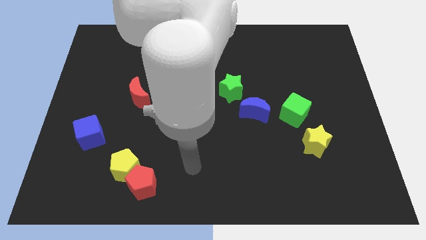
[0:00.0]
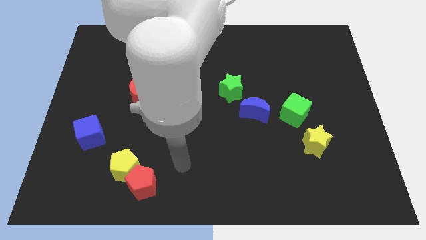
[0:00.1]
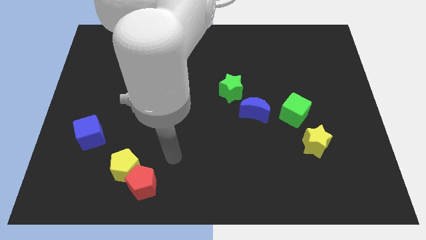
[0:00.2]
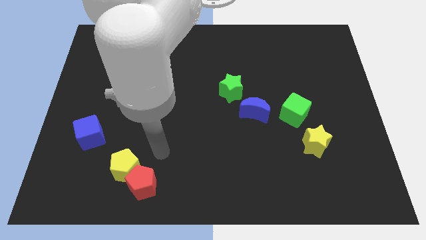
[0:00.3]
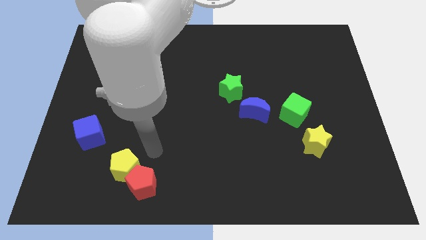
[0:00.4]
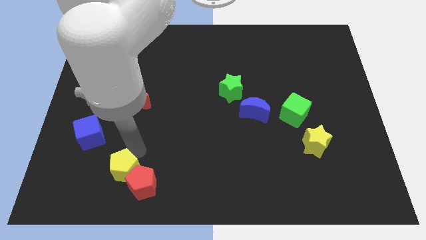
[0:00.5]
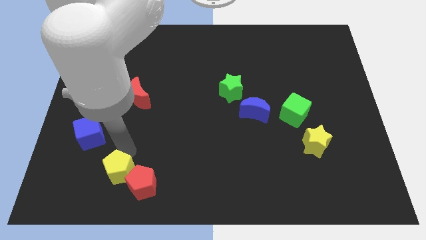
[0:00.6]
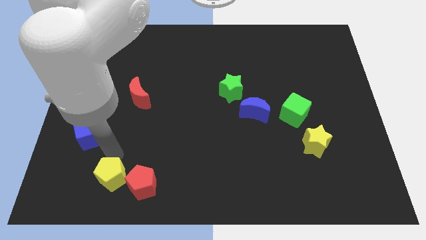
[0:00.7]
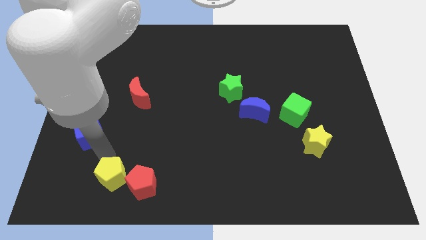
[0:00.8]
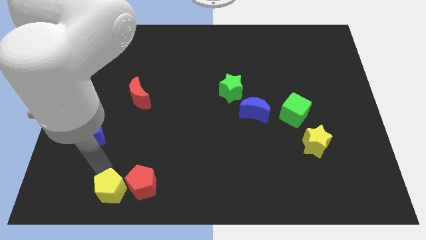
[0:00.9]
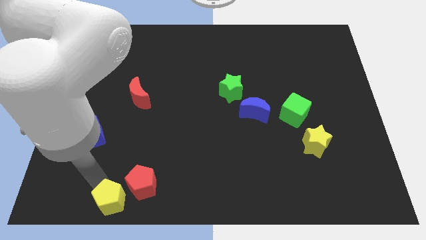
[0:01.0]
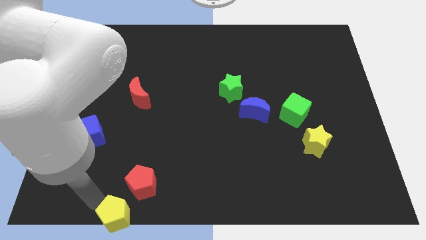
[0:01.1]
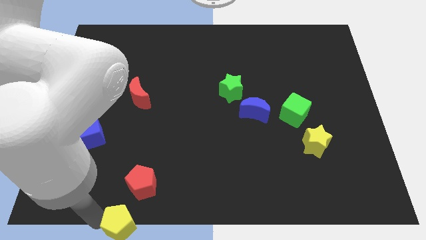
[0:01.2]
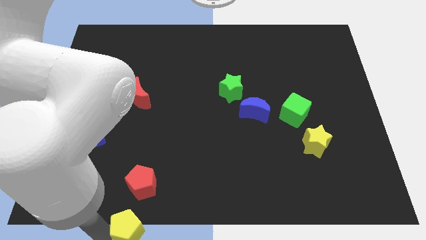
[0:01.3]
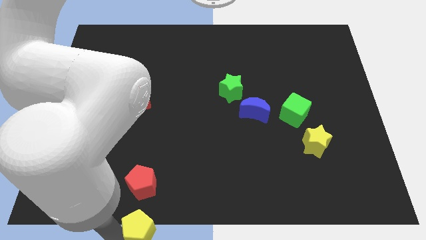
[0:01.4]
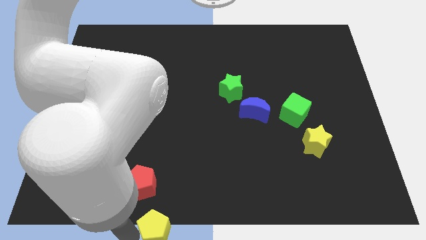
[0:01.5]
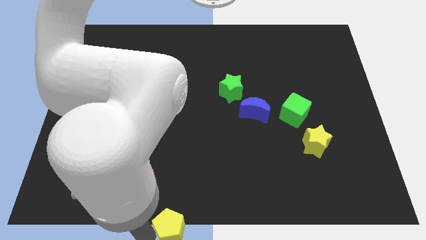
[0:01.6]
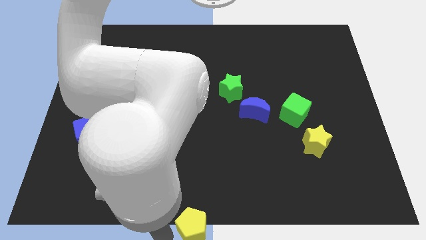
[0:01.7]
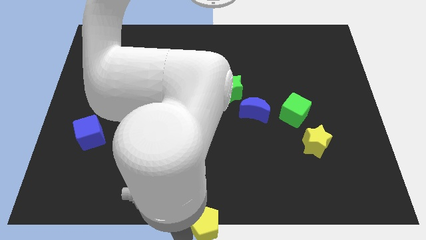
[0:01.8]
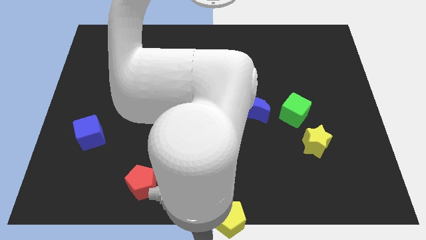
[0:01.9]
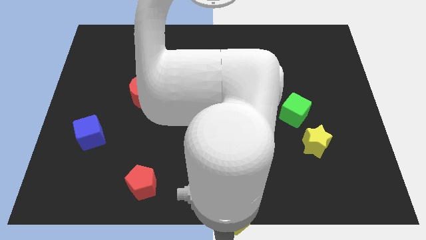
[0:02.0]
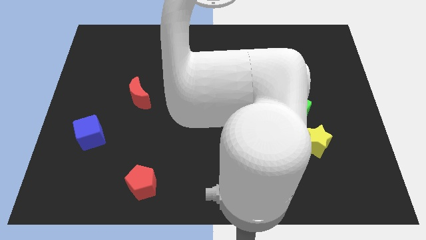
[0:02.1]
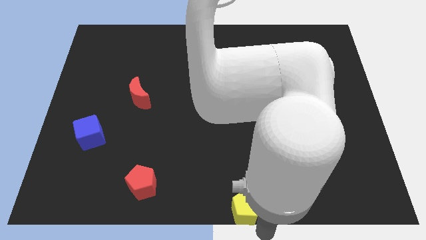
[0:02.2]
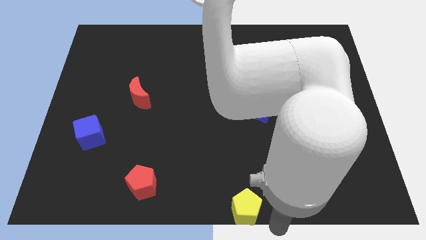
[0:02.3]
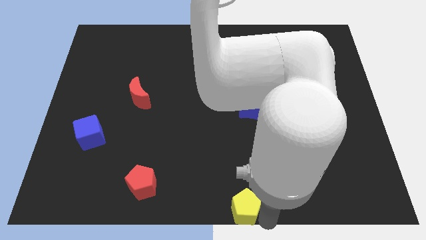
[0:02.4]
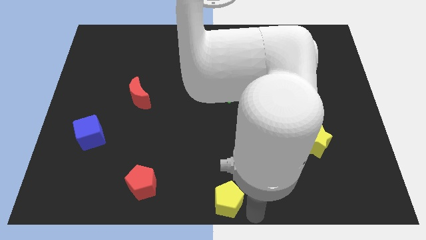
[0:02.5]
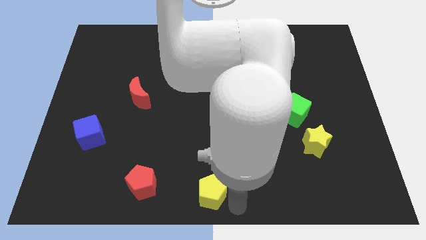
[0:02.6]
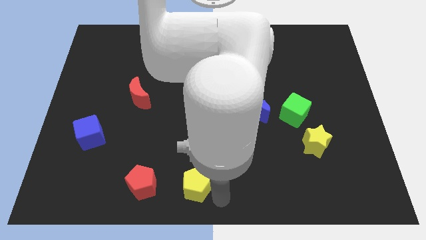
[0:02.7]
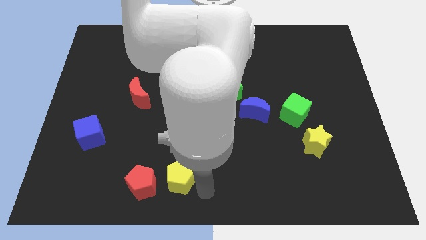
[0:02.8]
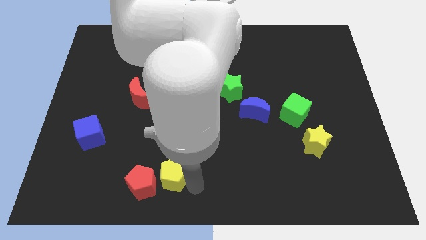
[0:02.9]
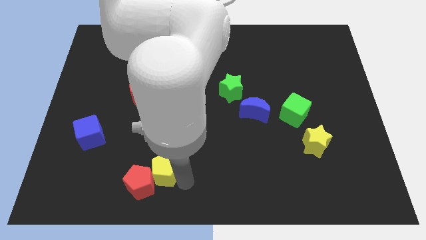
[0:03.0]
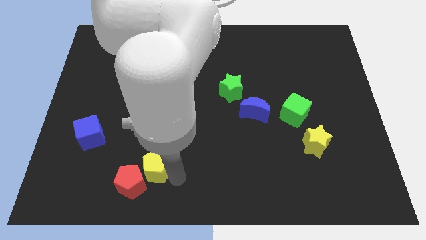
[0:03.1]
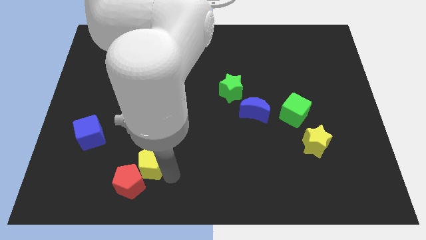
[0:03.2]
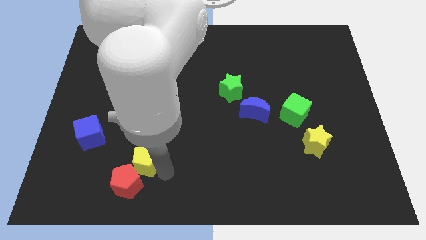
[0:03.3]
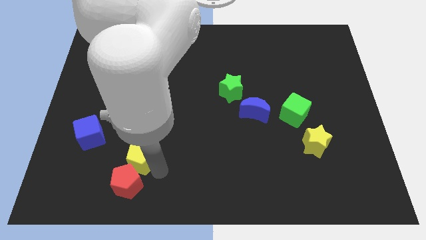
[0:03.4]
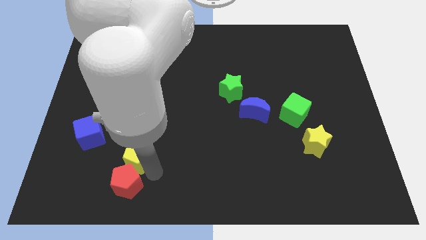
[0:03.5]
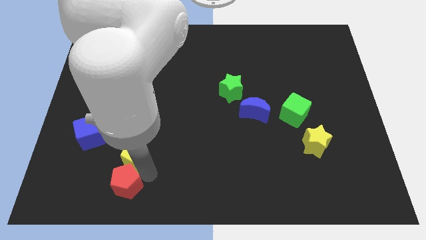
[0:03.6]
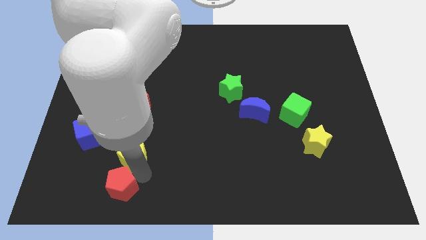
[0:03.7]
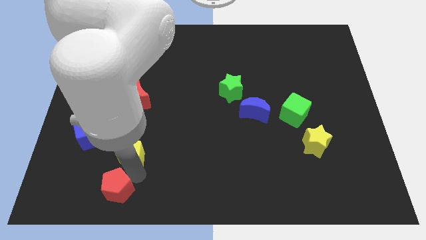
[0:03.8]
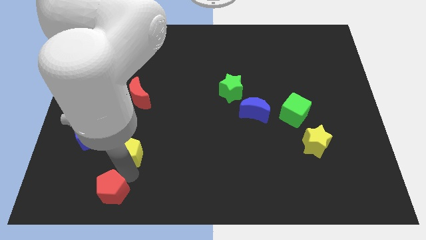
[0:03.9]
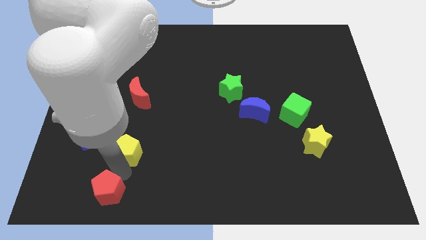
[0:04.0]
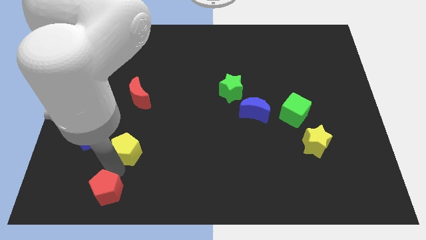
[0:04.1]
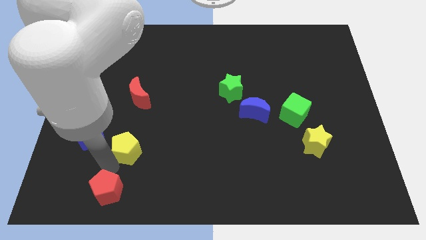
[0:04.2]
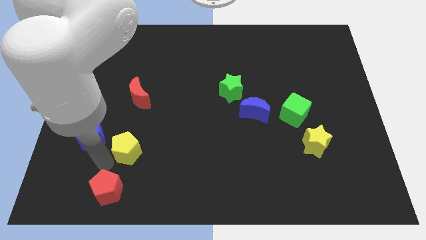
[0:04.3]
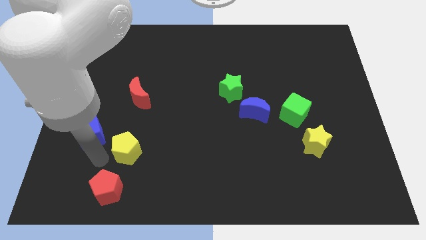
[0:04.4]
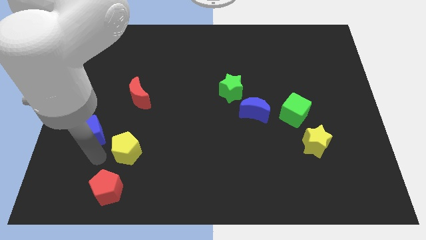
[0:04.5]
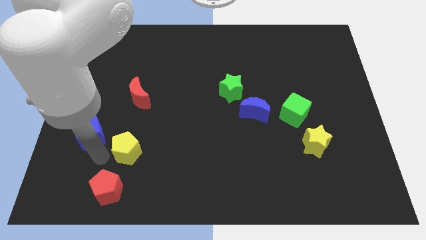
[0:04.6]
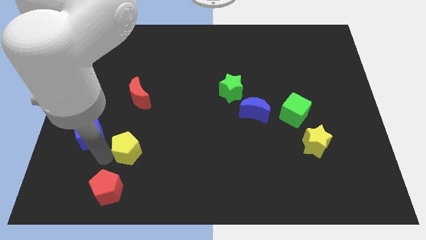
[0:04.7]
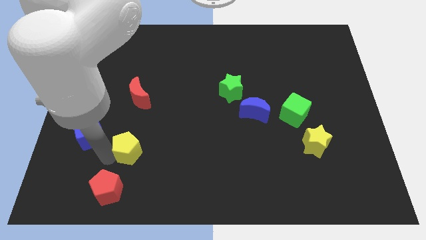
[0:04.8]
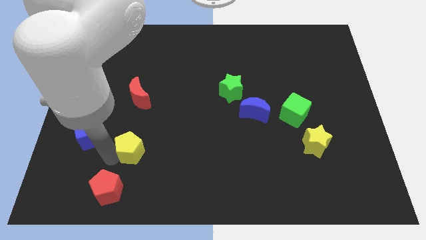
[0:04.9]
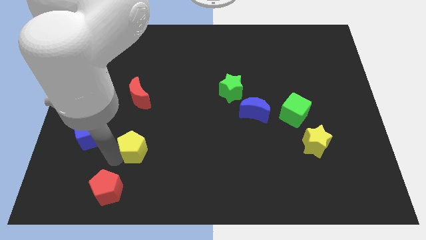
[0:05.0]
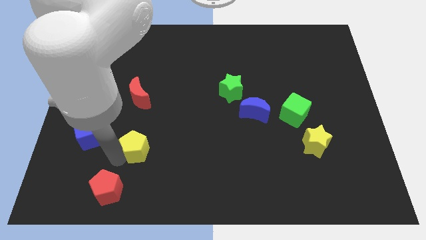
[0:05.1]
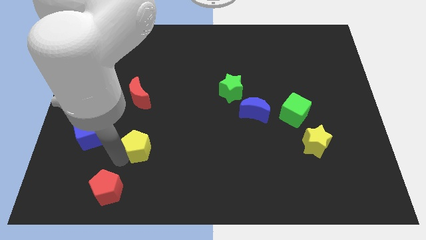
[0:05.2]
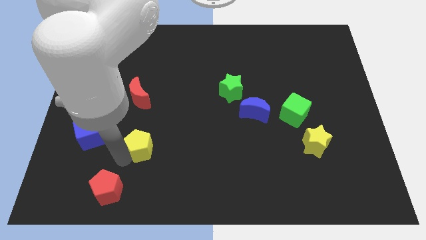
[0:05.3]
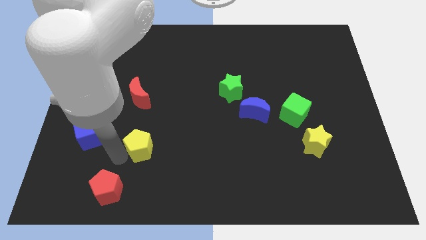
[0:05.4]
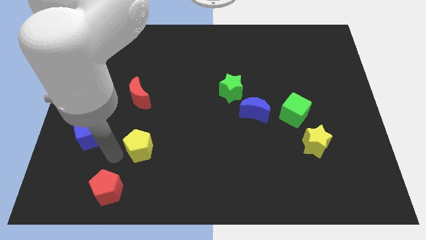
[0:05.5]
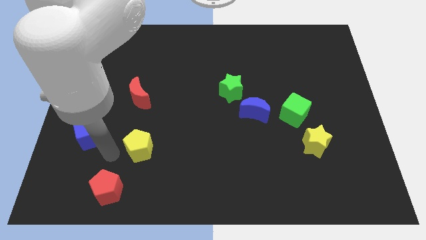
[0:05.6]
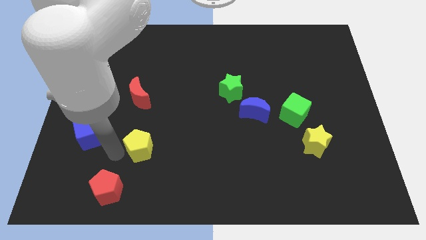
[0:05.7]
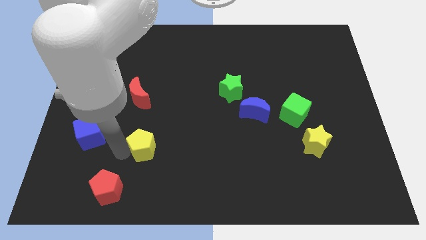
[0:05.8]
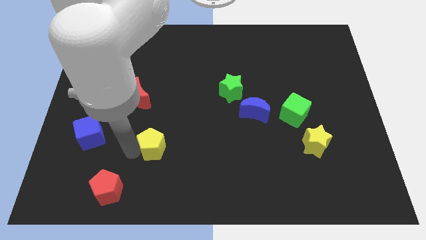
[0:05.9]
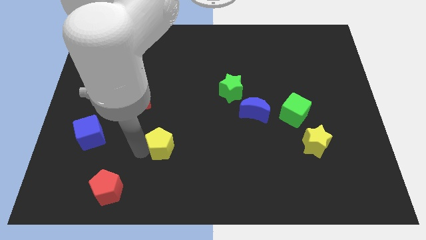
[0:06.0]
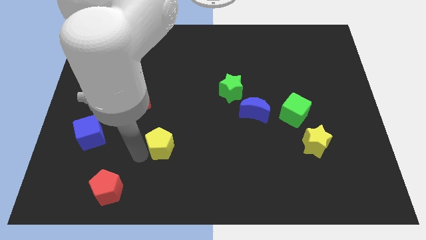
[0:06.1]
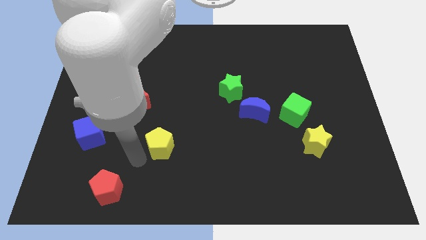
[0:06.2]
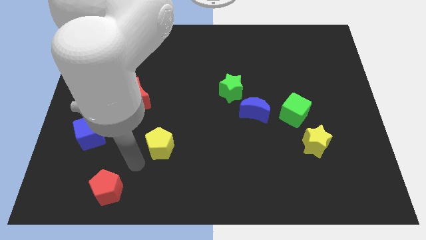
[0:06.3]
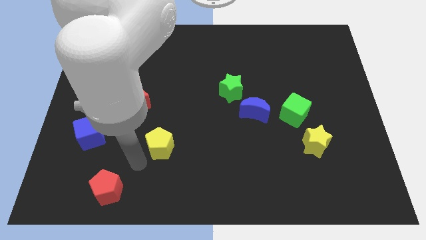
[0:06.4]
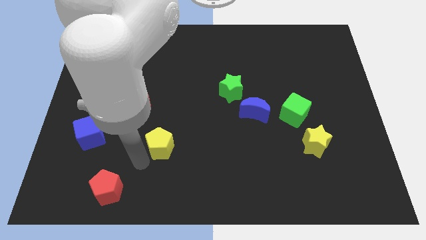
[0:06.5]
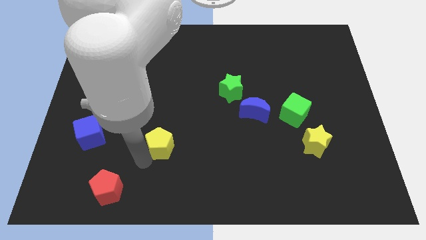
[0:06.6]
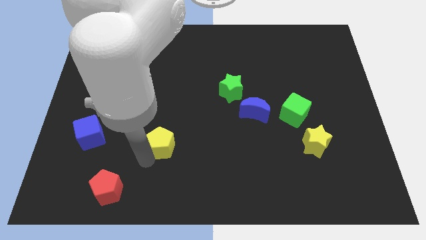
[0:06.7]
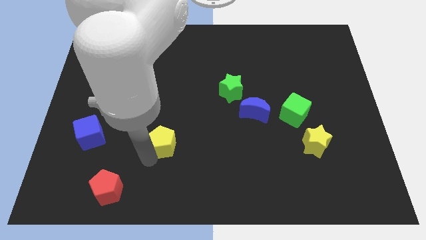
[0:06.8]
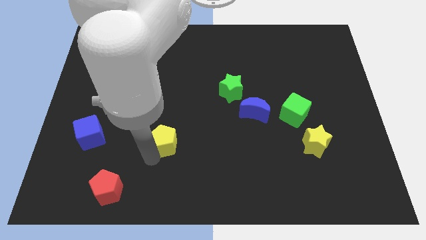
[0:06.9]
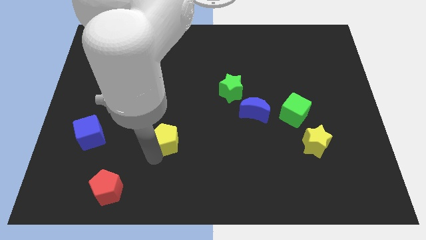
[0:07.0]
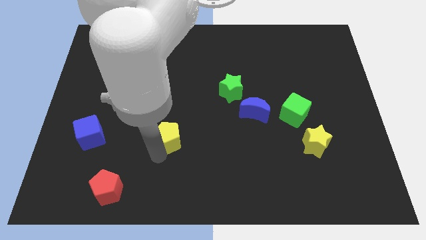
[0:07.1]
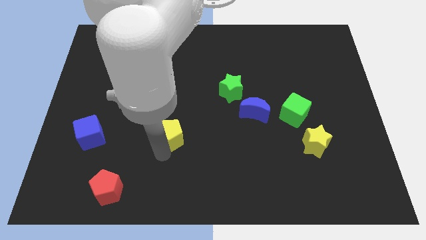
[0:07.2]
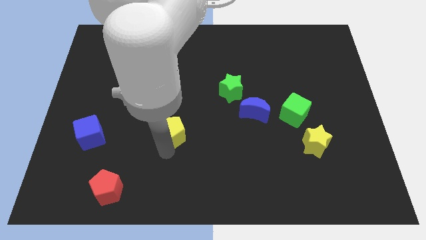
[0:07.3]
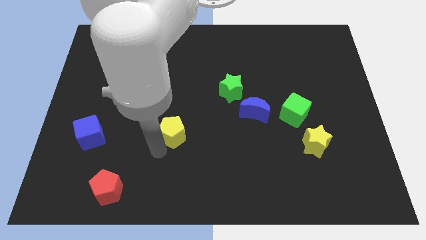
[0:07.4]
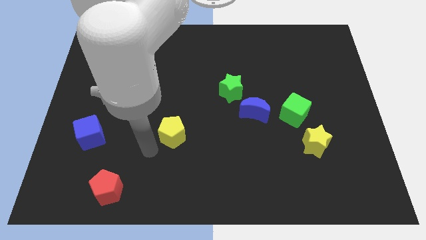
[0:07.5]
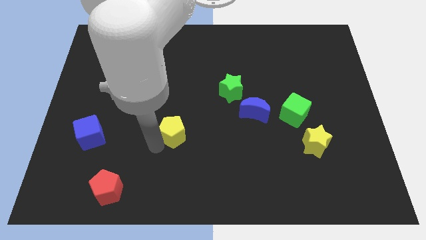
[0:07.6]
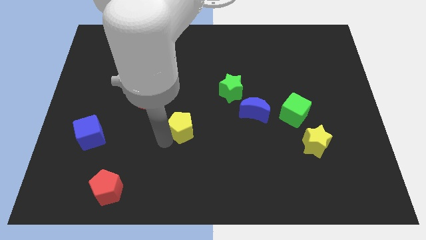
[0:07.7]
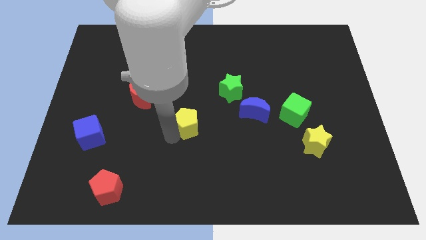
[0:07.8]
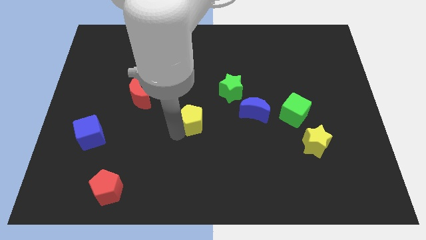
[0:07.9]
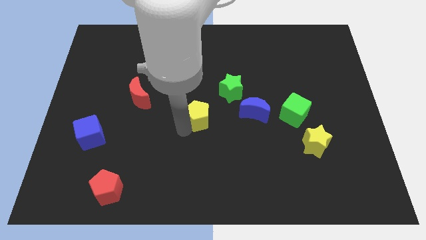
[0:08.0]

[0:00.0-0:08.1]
move the yellow pentagon to the bottom left of the green star
